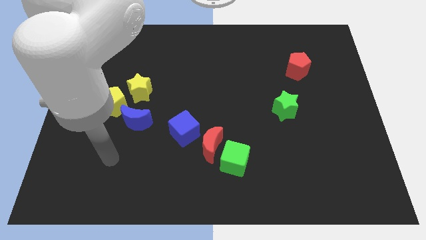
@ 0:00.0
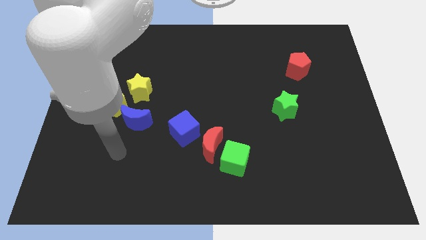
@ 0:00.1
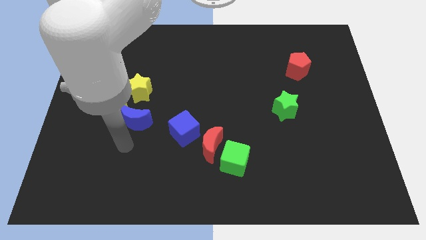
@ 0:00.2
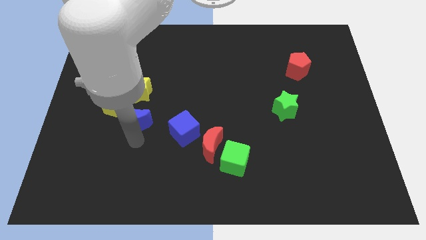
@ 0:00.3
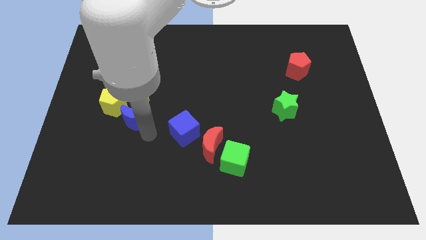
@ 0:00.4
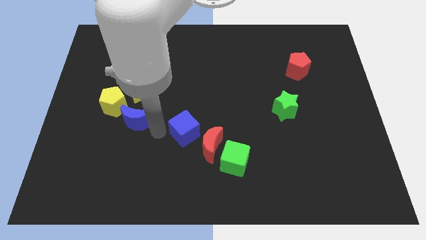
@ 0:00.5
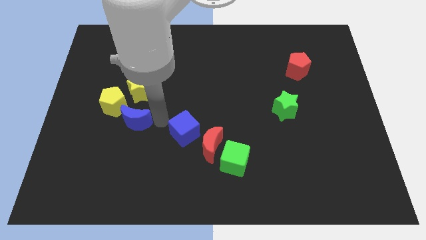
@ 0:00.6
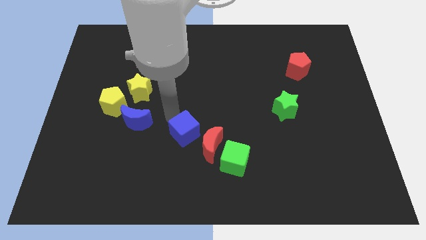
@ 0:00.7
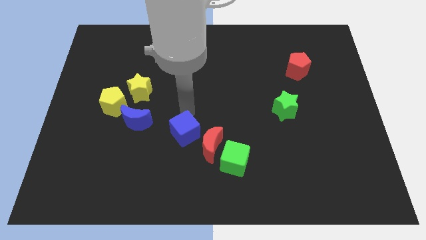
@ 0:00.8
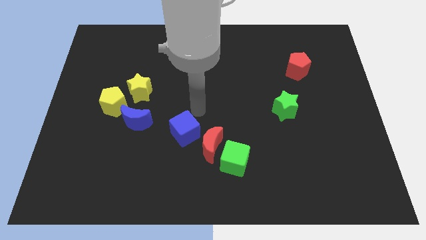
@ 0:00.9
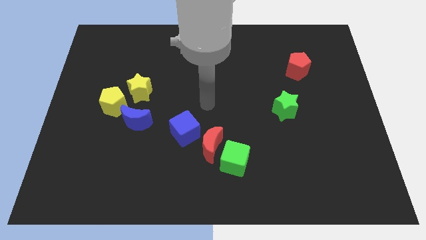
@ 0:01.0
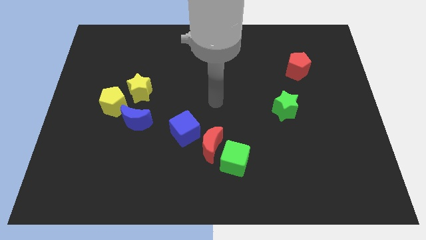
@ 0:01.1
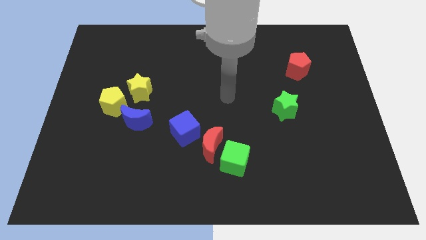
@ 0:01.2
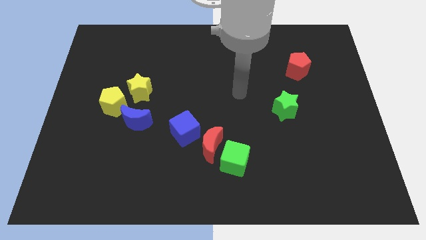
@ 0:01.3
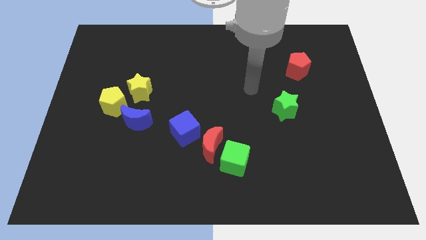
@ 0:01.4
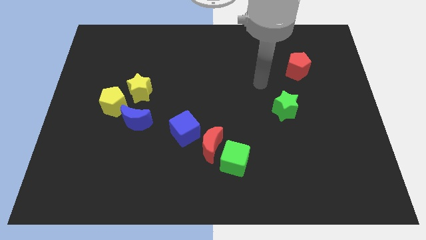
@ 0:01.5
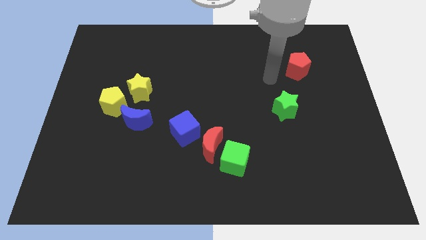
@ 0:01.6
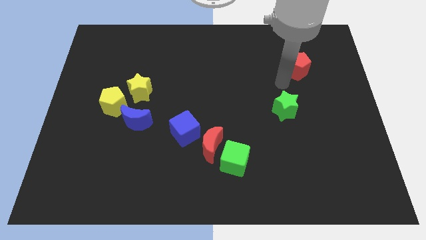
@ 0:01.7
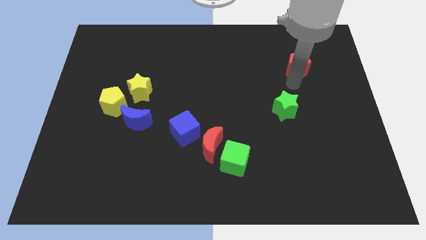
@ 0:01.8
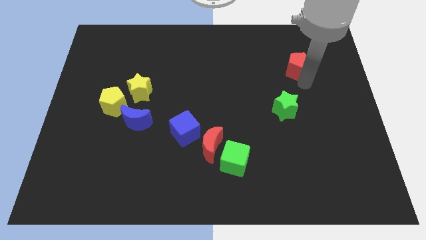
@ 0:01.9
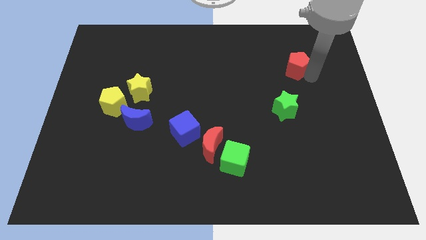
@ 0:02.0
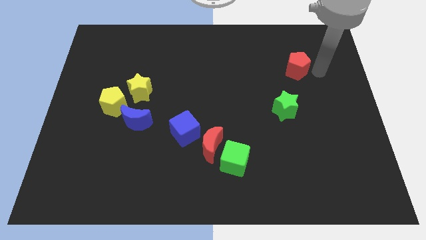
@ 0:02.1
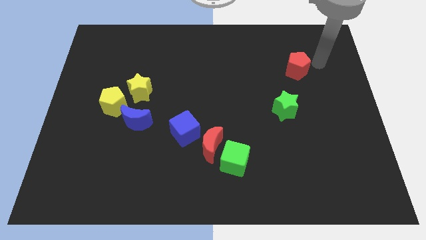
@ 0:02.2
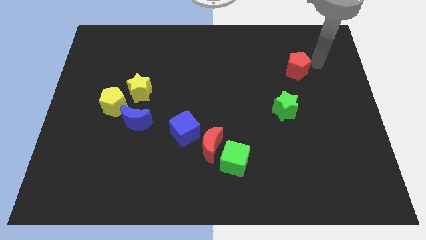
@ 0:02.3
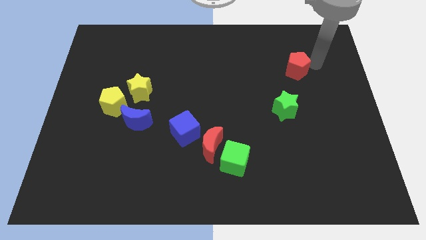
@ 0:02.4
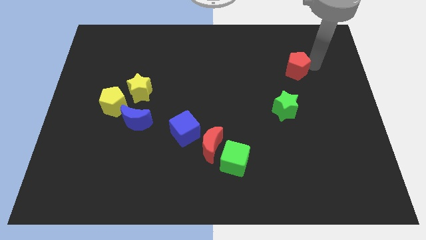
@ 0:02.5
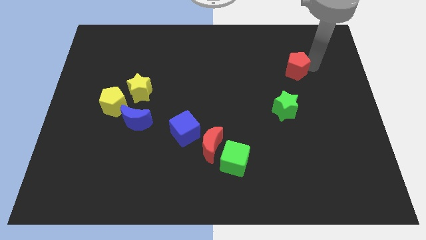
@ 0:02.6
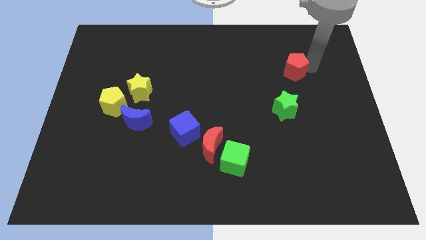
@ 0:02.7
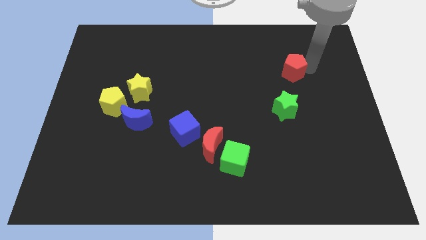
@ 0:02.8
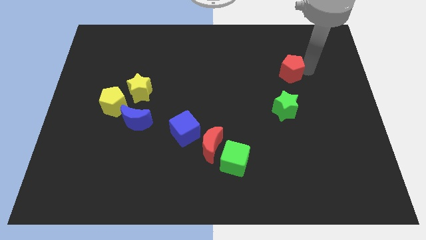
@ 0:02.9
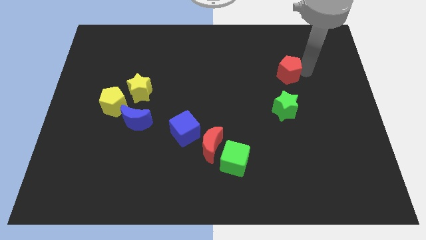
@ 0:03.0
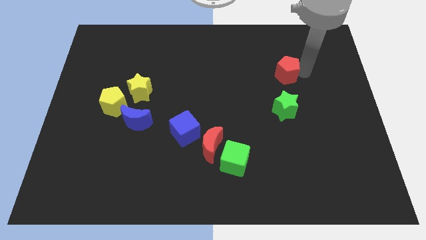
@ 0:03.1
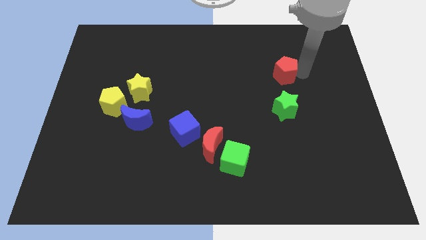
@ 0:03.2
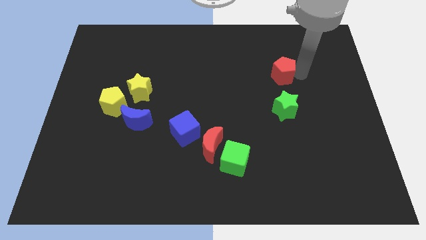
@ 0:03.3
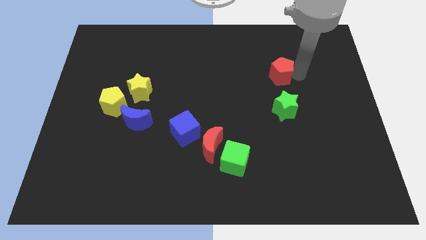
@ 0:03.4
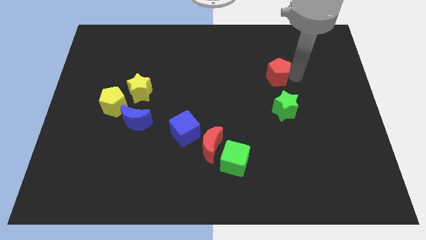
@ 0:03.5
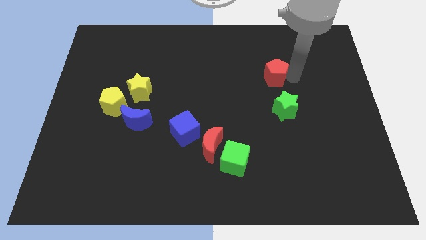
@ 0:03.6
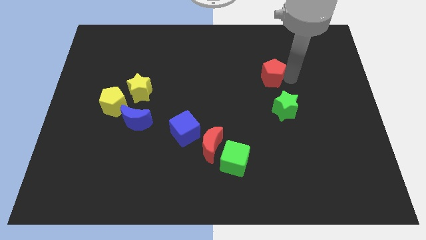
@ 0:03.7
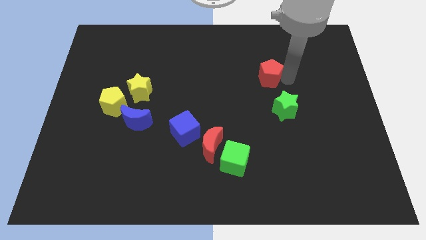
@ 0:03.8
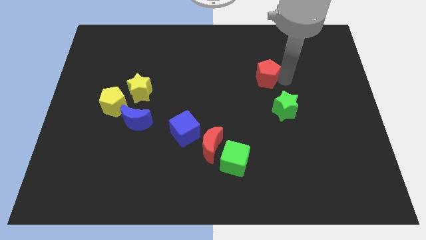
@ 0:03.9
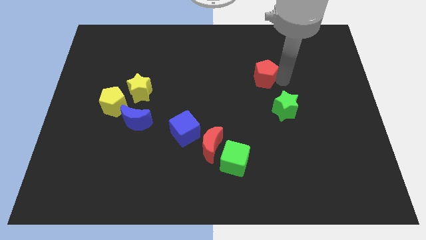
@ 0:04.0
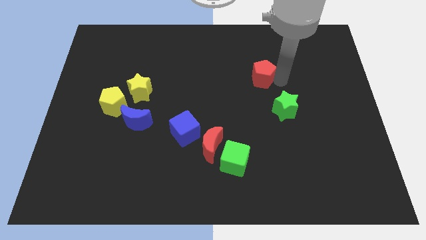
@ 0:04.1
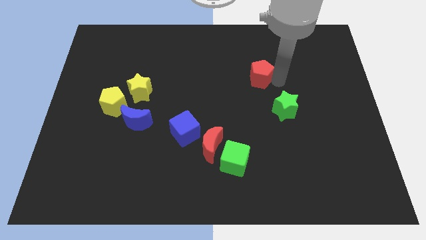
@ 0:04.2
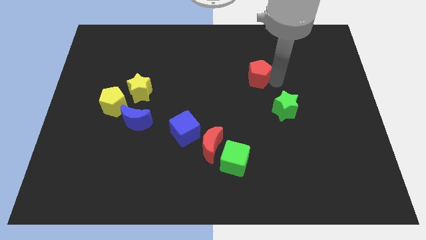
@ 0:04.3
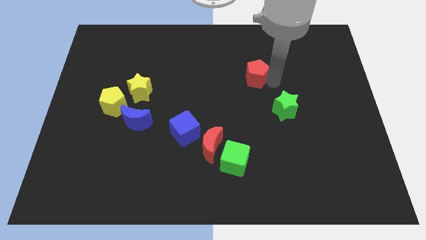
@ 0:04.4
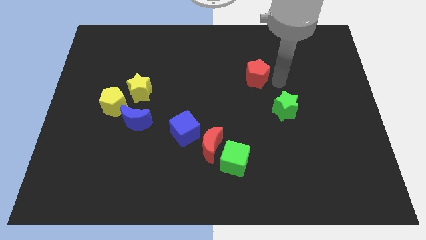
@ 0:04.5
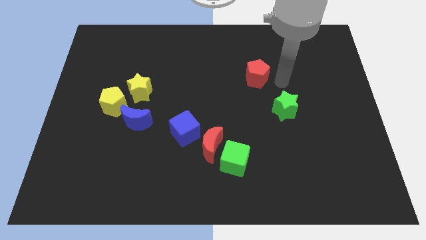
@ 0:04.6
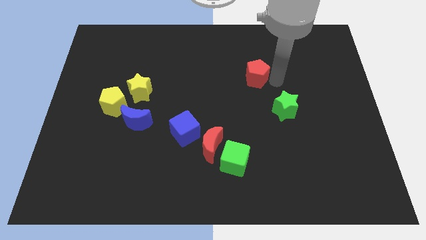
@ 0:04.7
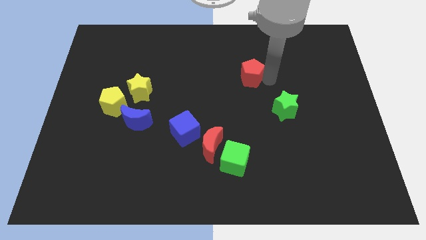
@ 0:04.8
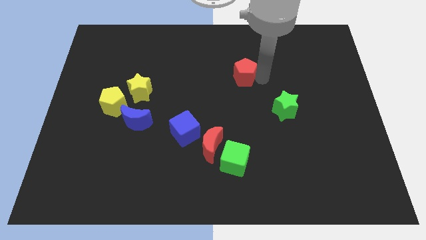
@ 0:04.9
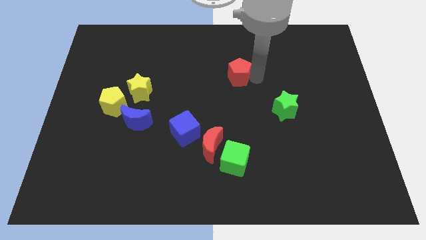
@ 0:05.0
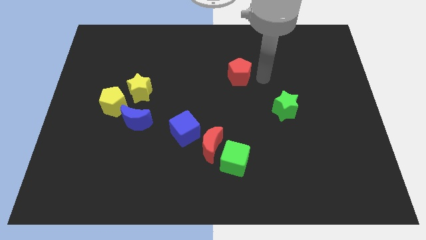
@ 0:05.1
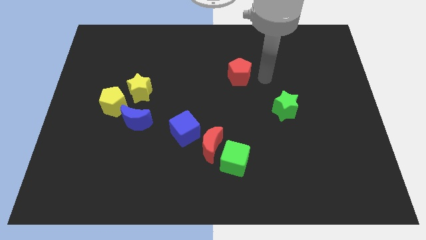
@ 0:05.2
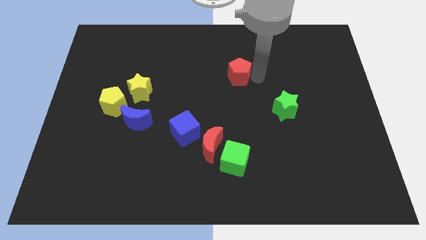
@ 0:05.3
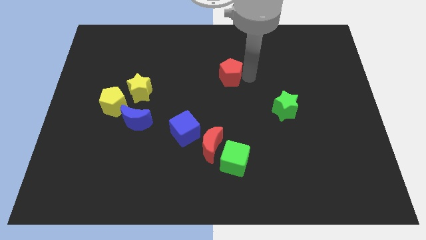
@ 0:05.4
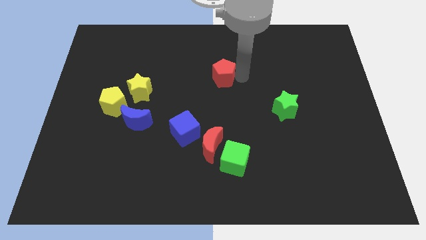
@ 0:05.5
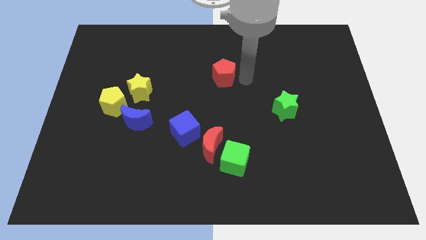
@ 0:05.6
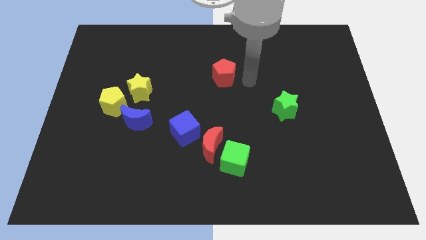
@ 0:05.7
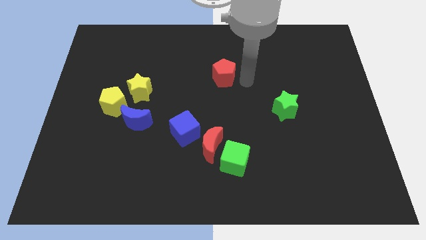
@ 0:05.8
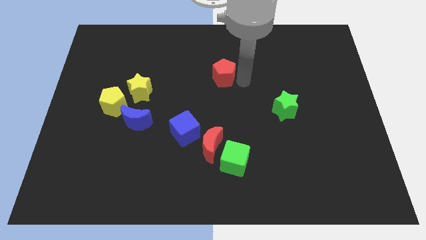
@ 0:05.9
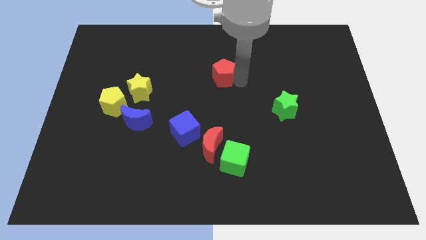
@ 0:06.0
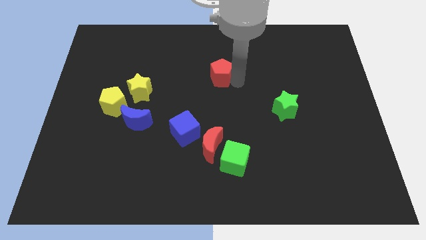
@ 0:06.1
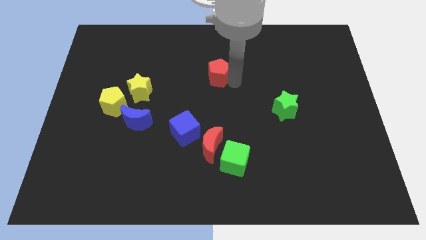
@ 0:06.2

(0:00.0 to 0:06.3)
slide the red pentagon to the left

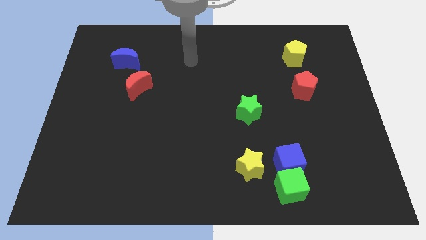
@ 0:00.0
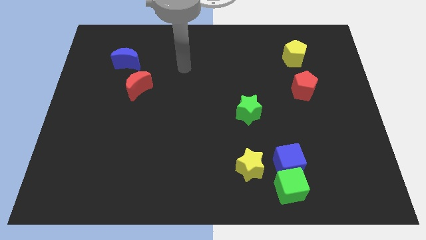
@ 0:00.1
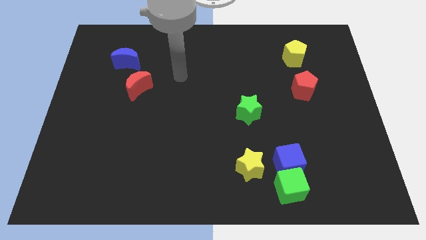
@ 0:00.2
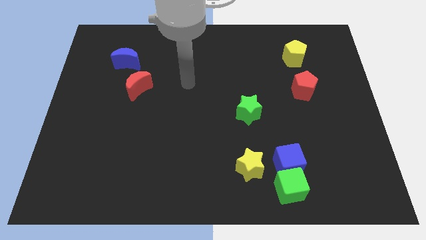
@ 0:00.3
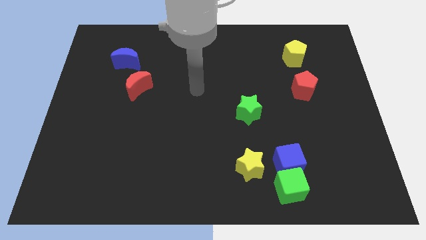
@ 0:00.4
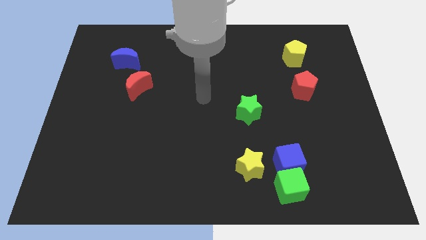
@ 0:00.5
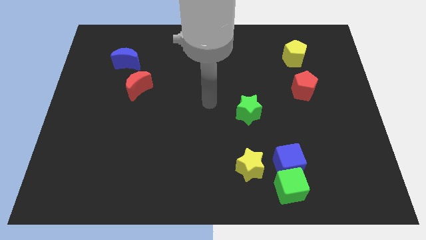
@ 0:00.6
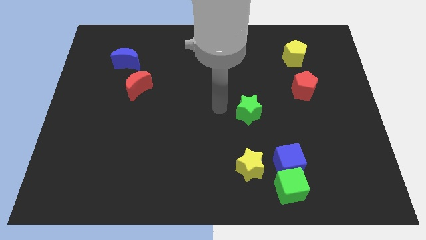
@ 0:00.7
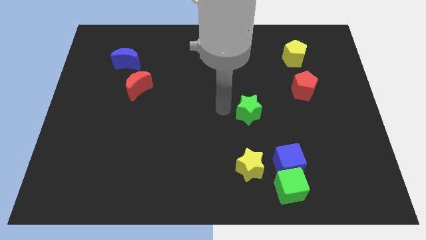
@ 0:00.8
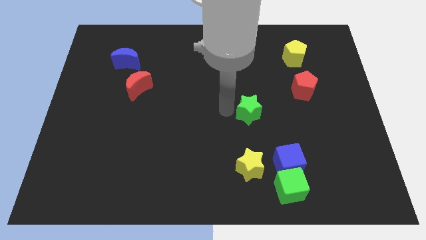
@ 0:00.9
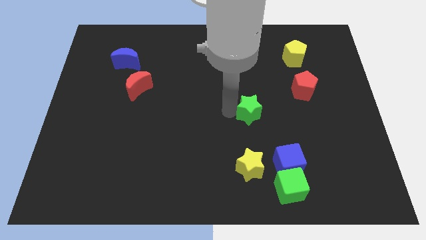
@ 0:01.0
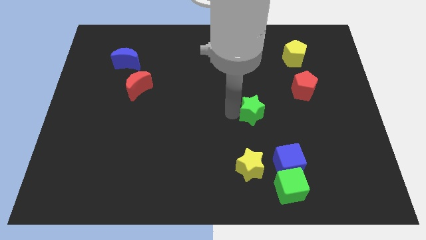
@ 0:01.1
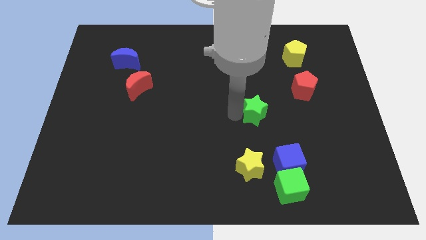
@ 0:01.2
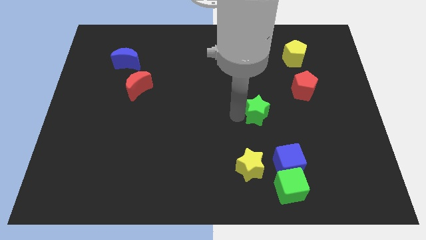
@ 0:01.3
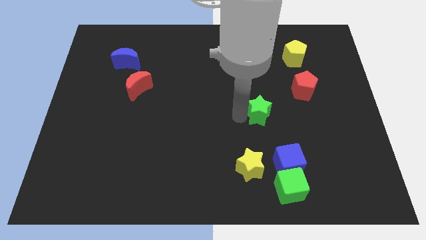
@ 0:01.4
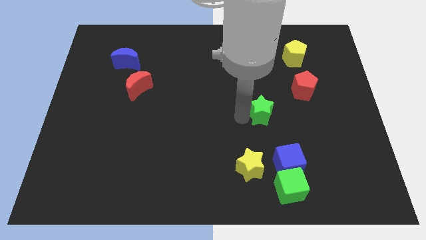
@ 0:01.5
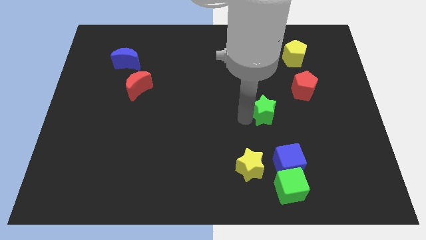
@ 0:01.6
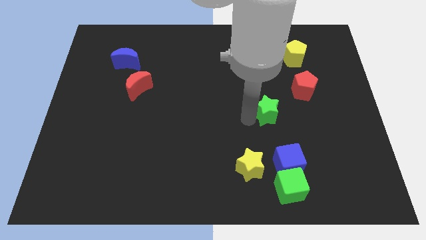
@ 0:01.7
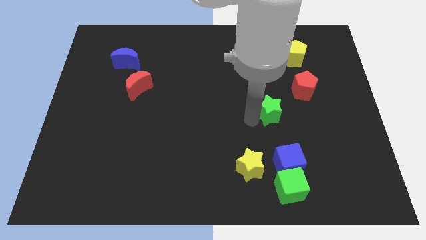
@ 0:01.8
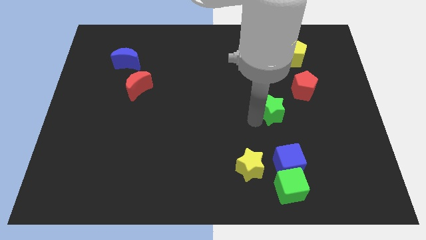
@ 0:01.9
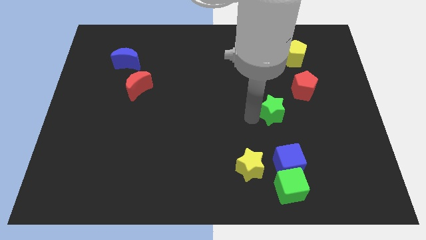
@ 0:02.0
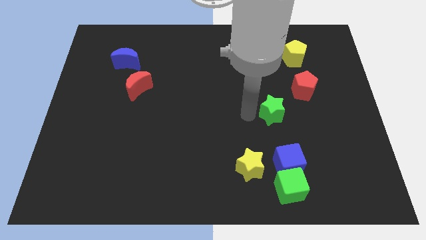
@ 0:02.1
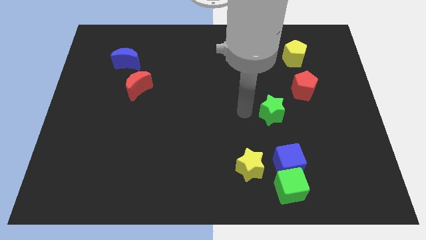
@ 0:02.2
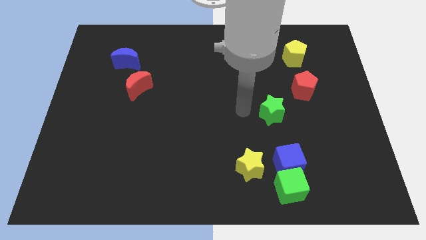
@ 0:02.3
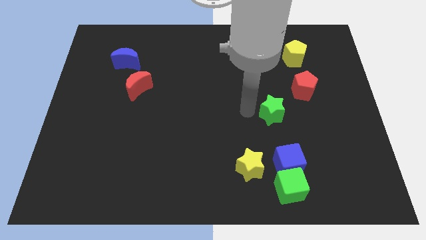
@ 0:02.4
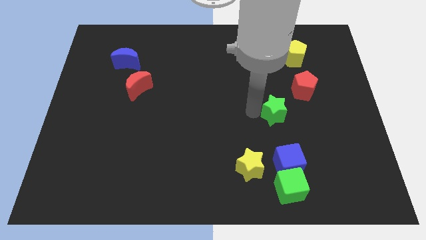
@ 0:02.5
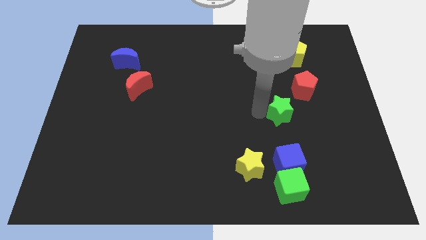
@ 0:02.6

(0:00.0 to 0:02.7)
slightly move the green star right
